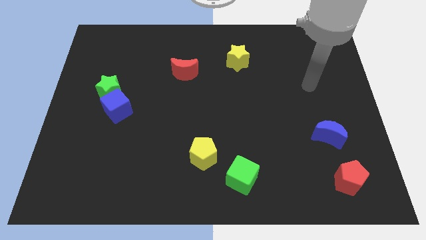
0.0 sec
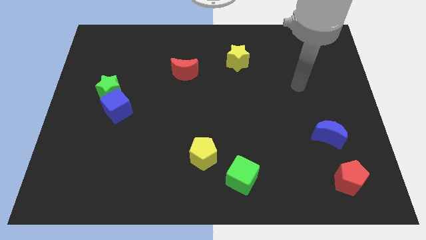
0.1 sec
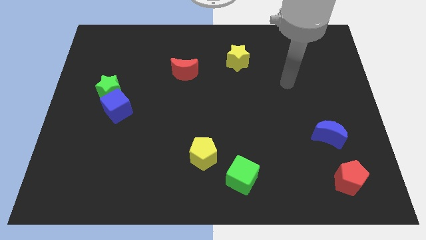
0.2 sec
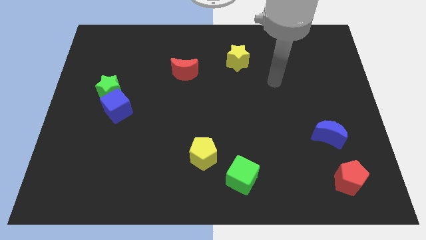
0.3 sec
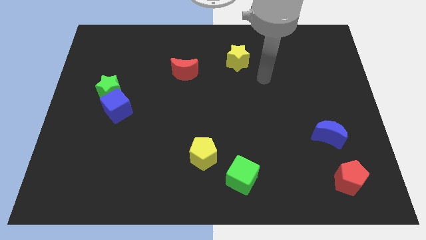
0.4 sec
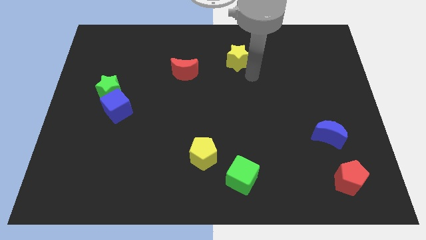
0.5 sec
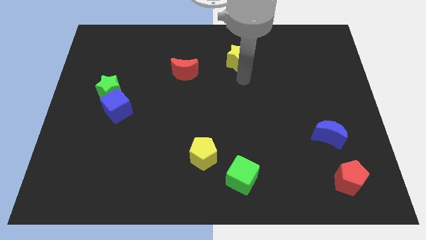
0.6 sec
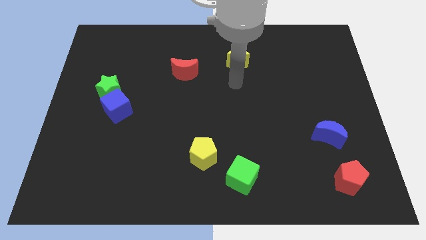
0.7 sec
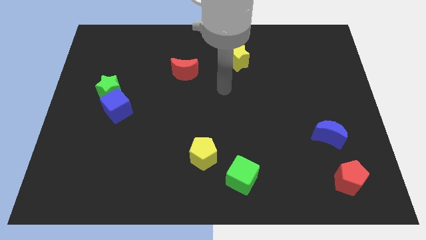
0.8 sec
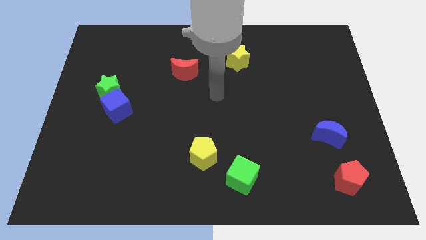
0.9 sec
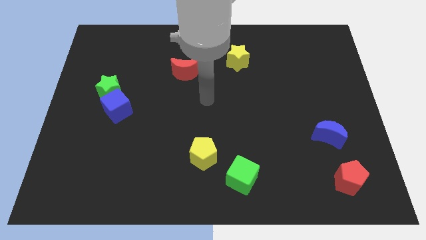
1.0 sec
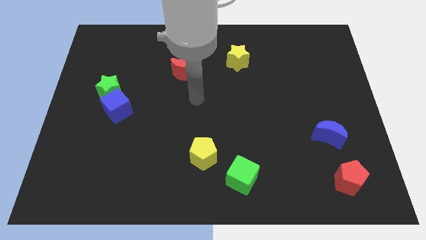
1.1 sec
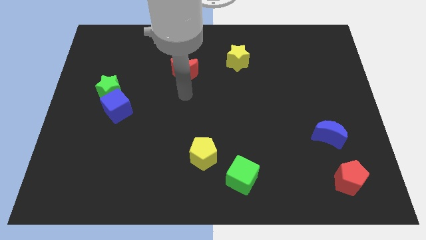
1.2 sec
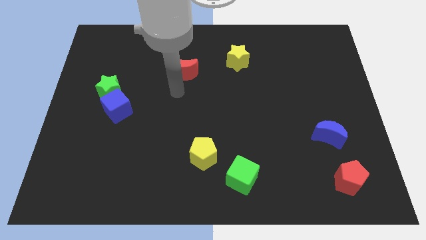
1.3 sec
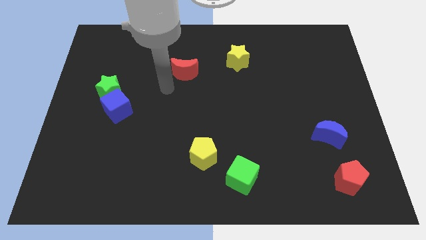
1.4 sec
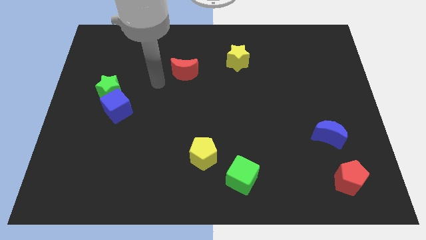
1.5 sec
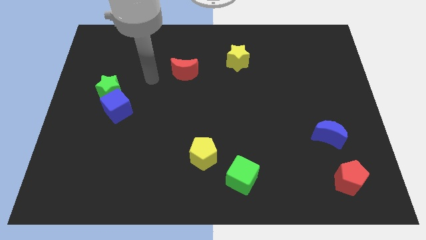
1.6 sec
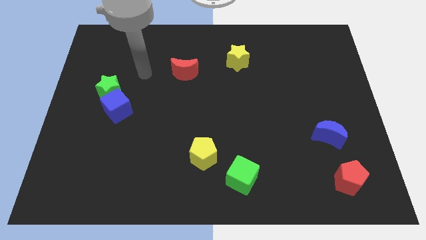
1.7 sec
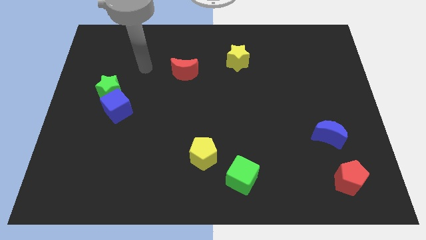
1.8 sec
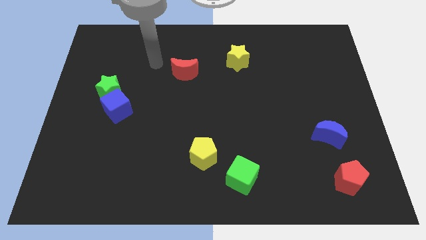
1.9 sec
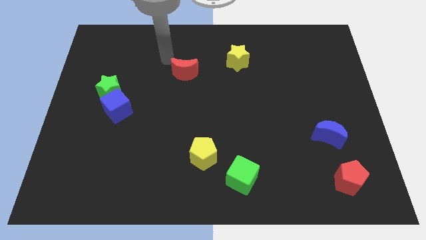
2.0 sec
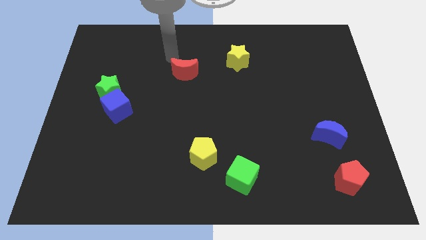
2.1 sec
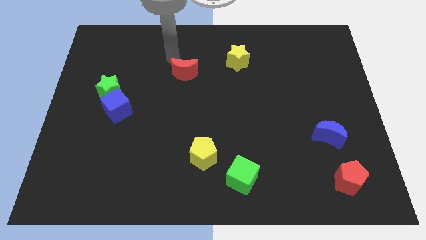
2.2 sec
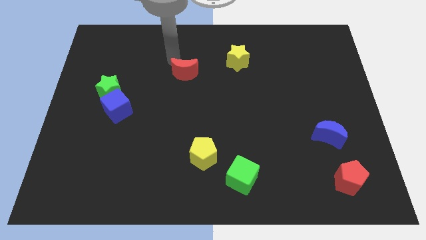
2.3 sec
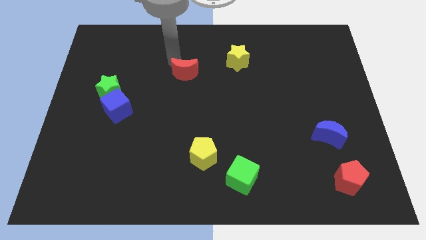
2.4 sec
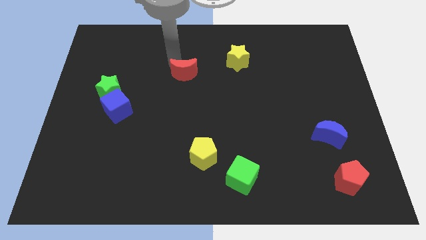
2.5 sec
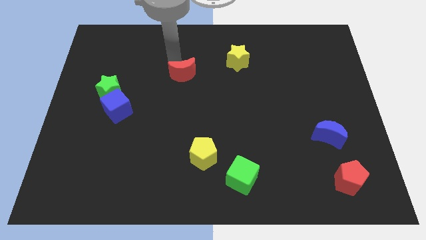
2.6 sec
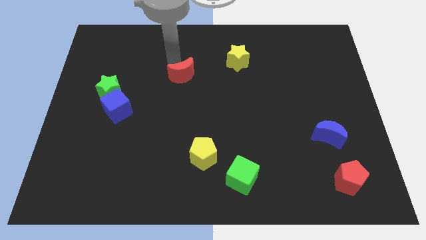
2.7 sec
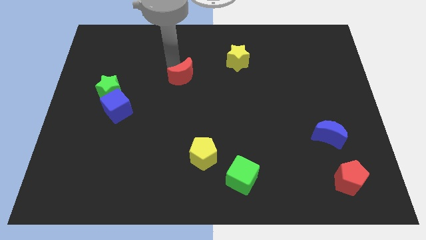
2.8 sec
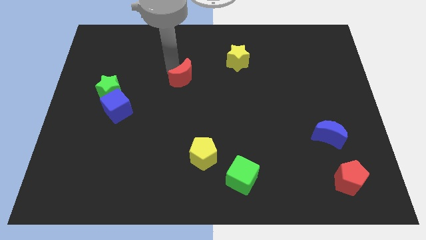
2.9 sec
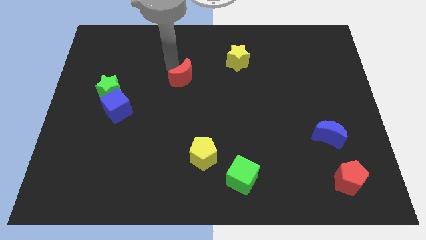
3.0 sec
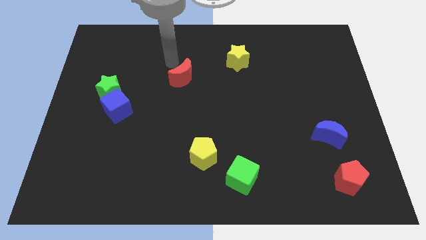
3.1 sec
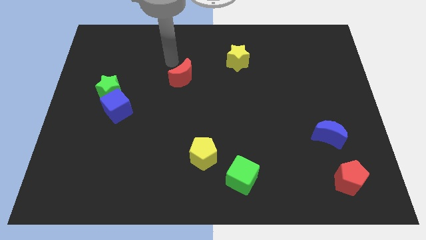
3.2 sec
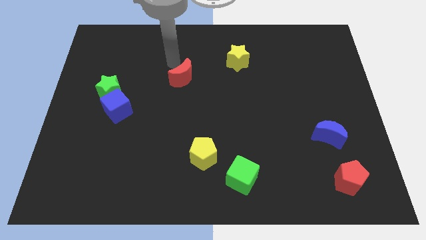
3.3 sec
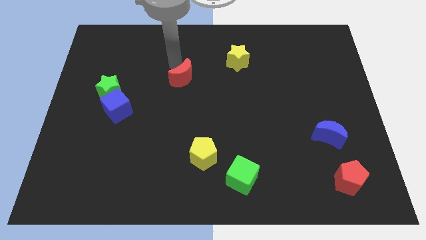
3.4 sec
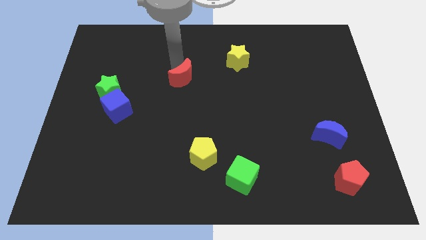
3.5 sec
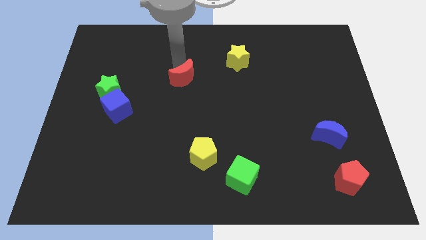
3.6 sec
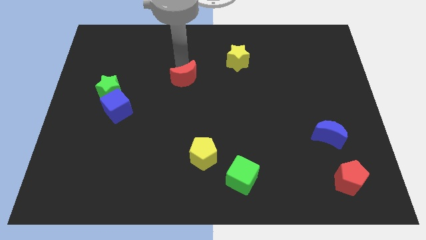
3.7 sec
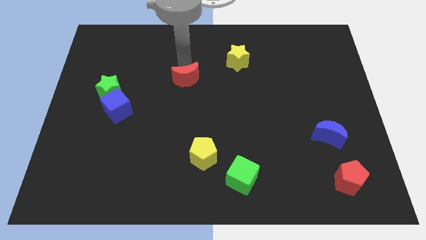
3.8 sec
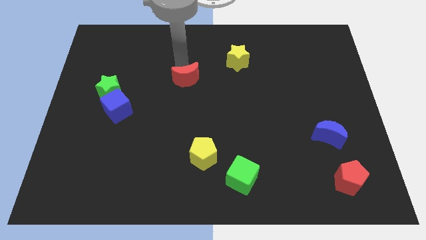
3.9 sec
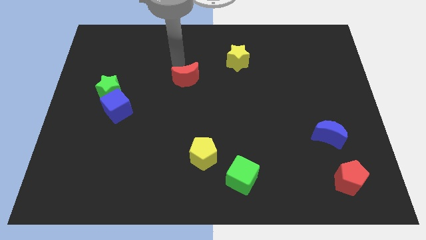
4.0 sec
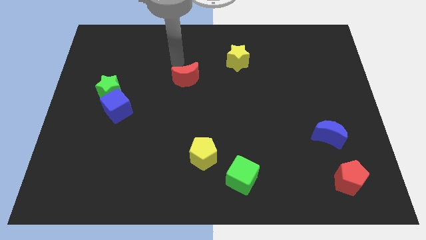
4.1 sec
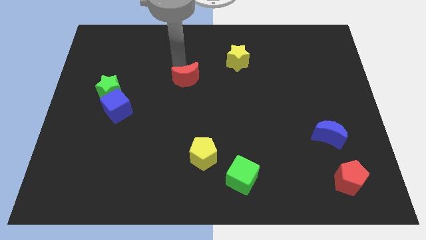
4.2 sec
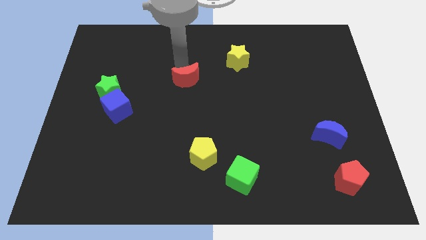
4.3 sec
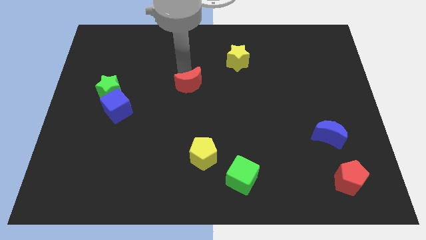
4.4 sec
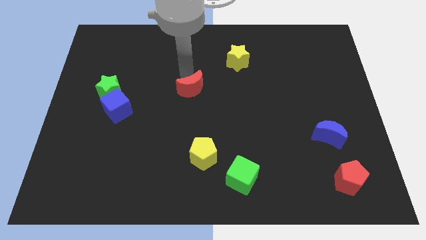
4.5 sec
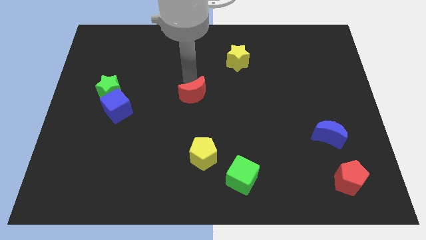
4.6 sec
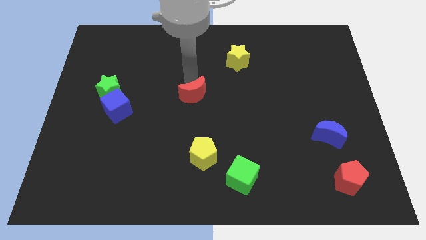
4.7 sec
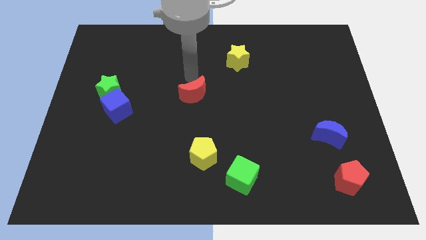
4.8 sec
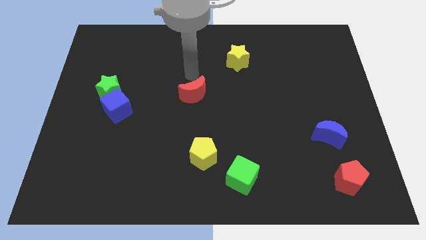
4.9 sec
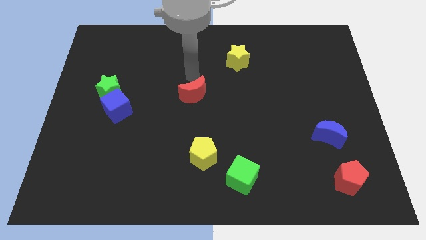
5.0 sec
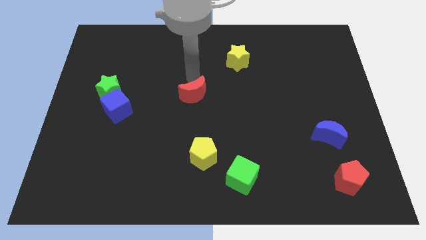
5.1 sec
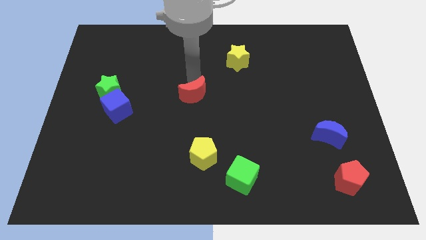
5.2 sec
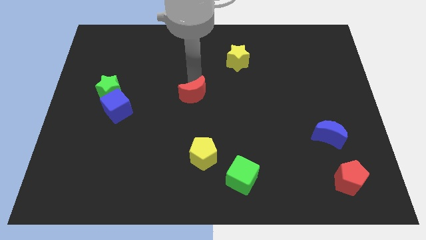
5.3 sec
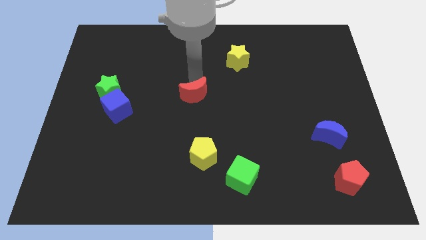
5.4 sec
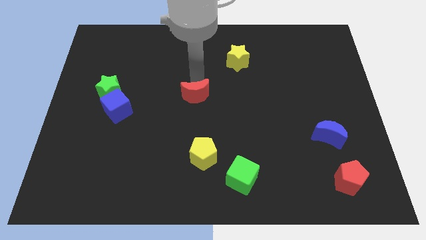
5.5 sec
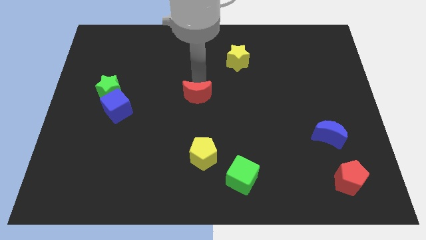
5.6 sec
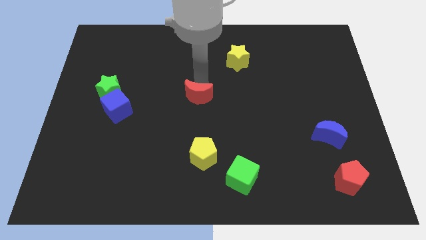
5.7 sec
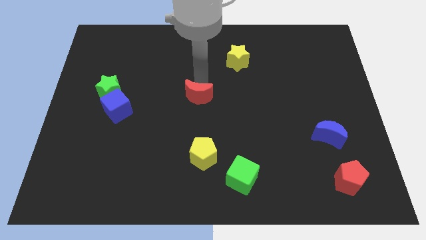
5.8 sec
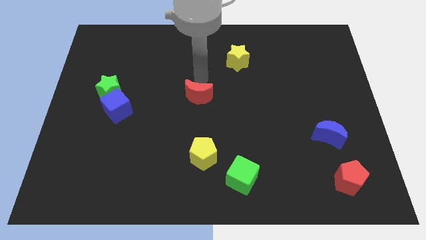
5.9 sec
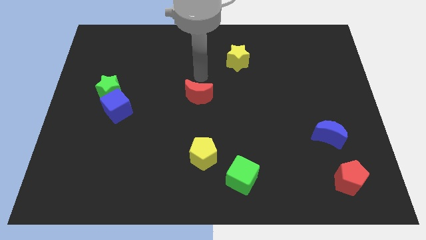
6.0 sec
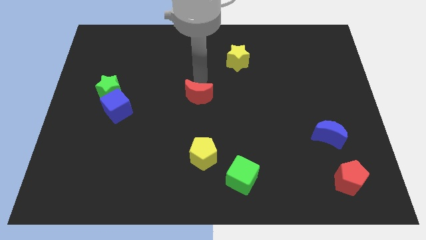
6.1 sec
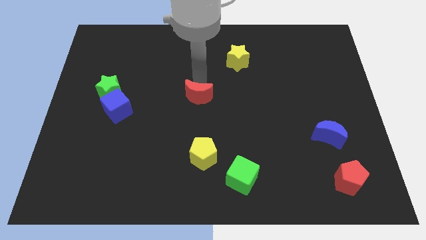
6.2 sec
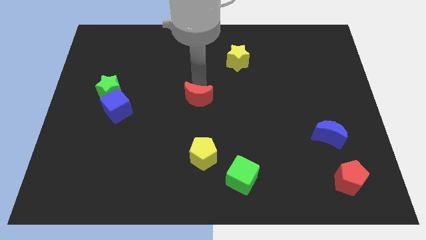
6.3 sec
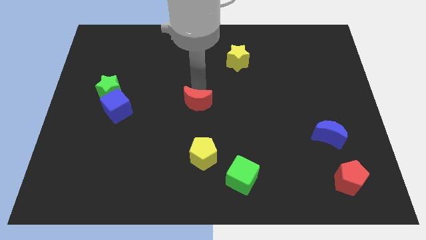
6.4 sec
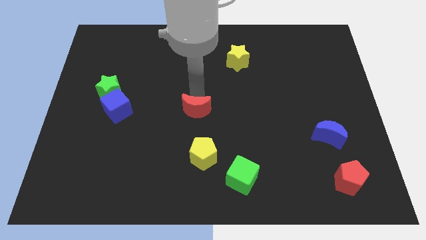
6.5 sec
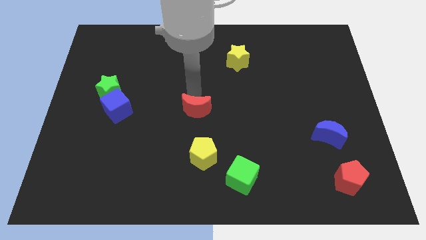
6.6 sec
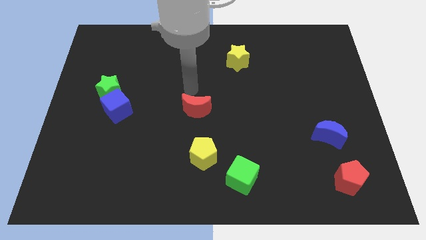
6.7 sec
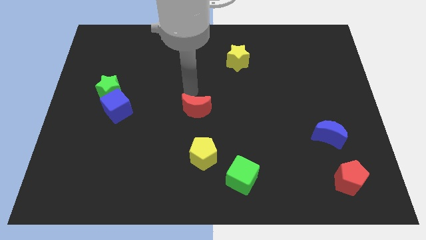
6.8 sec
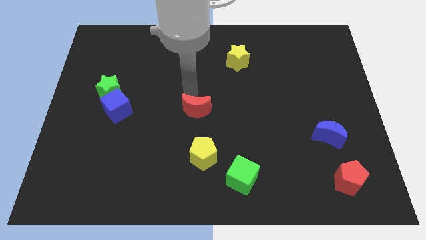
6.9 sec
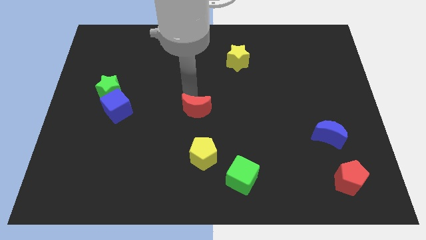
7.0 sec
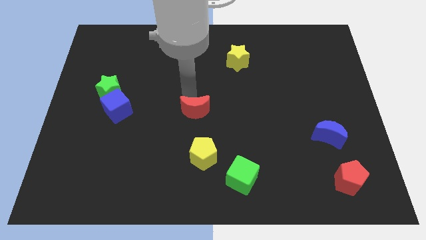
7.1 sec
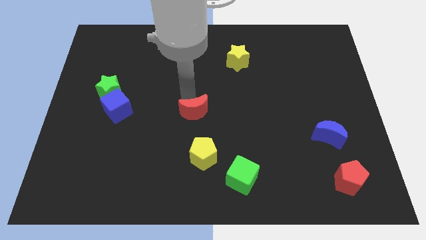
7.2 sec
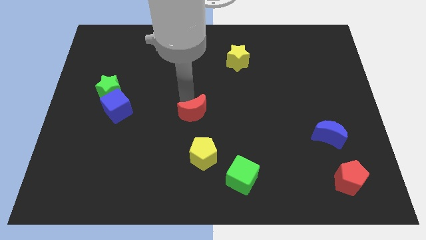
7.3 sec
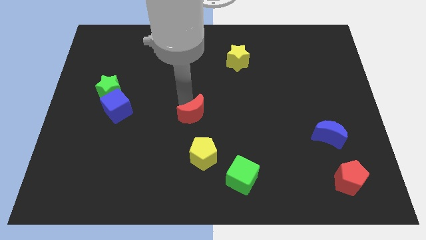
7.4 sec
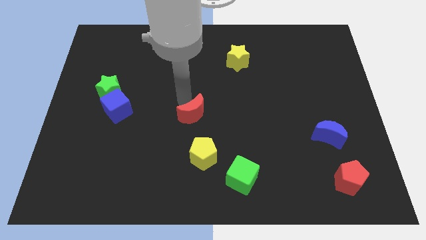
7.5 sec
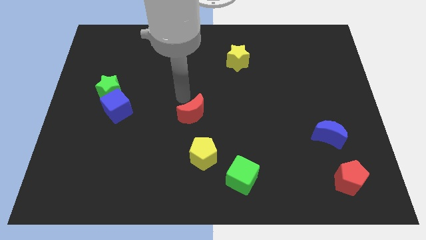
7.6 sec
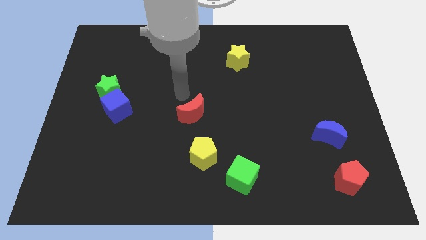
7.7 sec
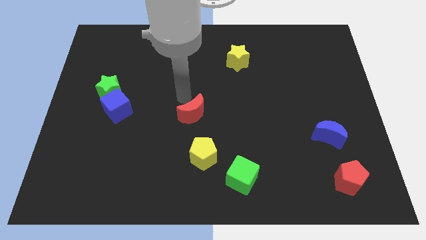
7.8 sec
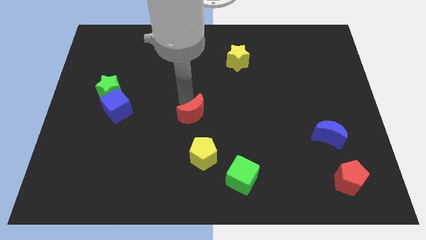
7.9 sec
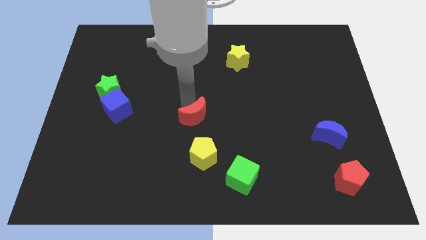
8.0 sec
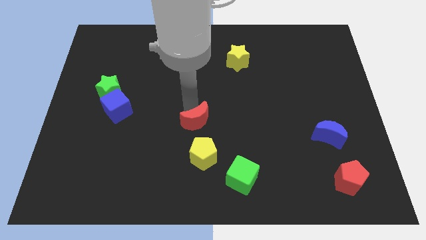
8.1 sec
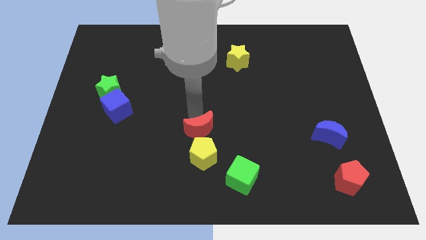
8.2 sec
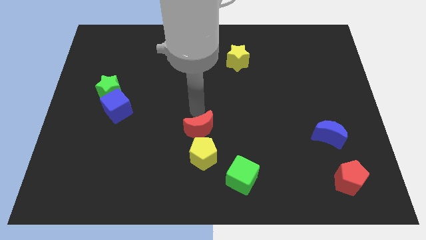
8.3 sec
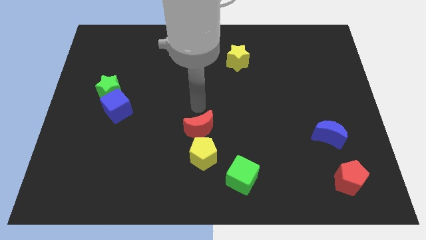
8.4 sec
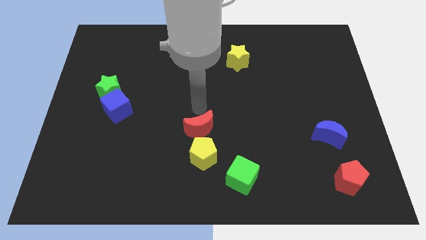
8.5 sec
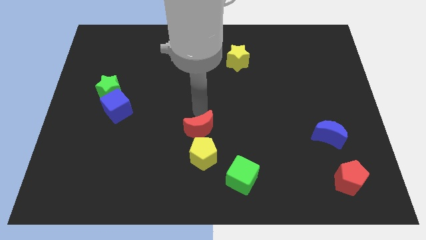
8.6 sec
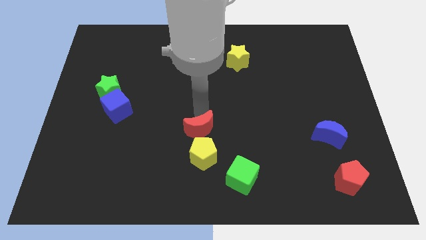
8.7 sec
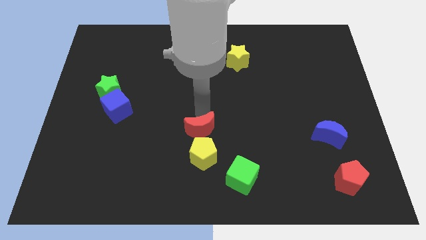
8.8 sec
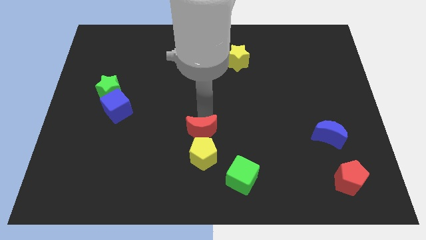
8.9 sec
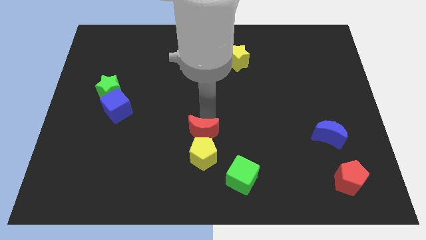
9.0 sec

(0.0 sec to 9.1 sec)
slide the red moon next to the yellow pentagon
